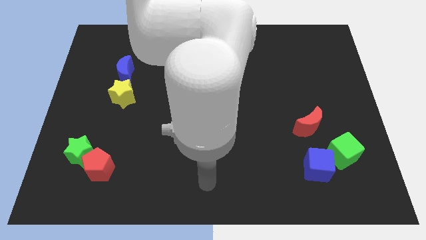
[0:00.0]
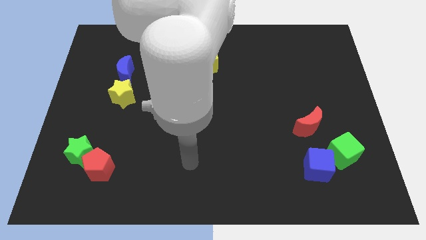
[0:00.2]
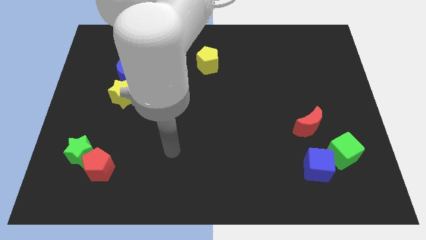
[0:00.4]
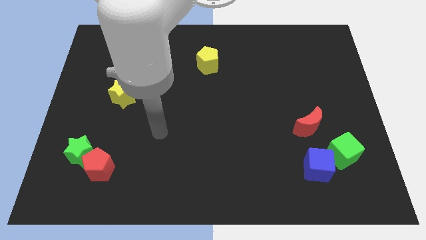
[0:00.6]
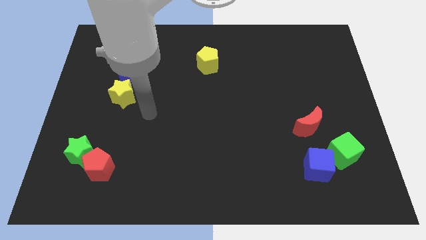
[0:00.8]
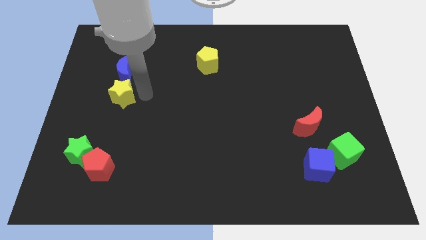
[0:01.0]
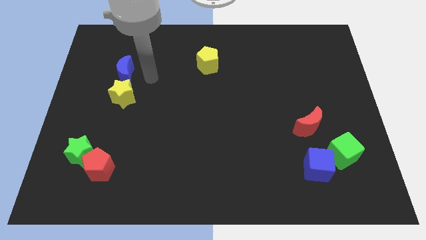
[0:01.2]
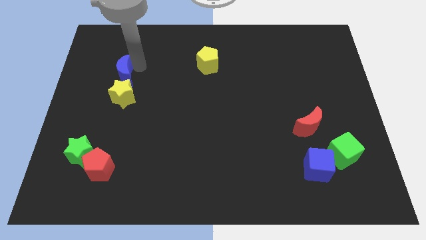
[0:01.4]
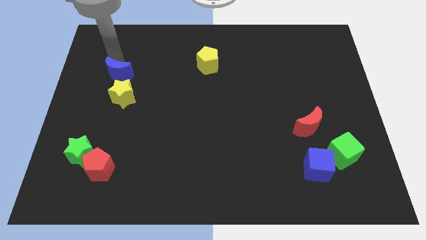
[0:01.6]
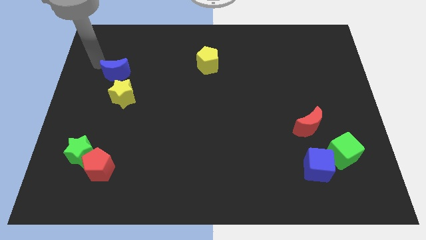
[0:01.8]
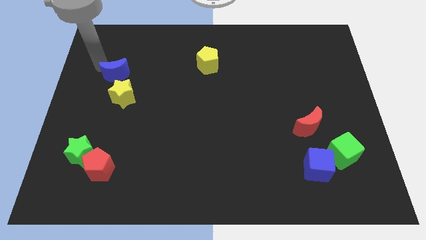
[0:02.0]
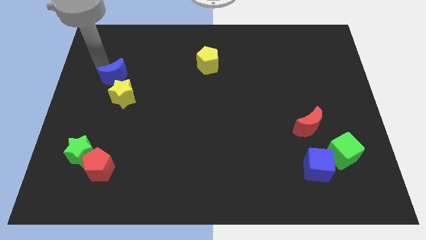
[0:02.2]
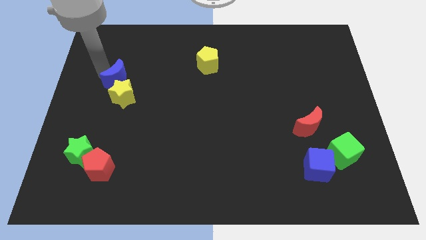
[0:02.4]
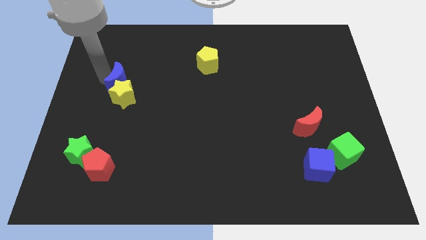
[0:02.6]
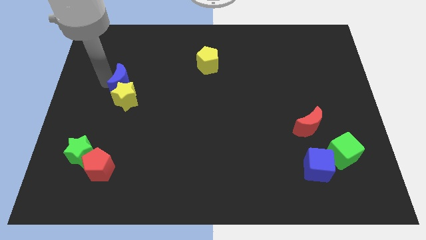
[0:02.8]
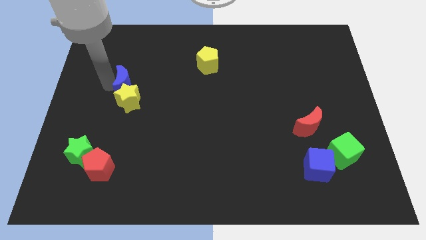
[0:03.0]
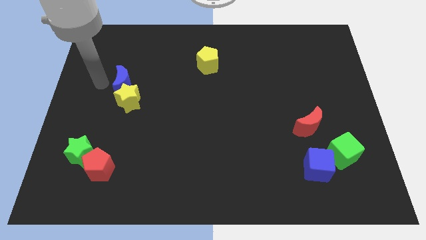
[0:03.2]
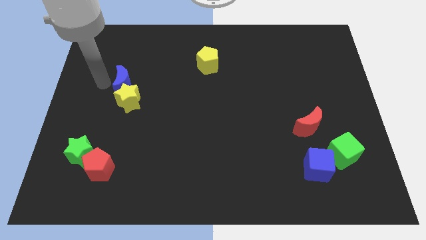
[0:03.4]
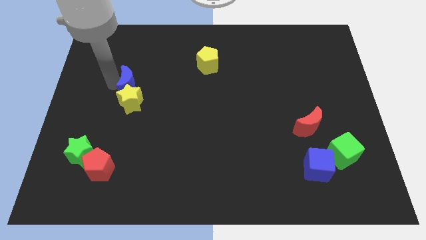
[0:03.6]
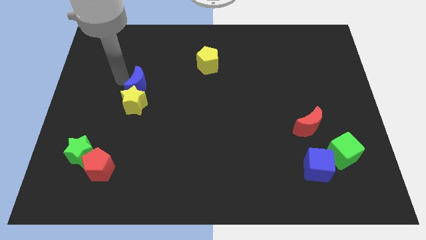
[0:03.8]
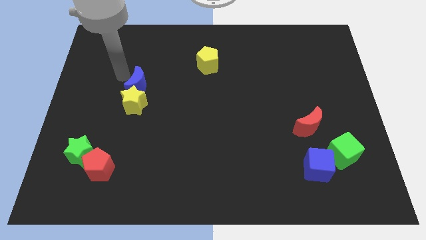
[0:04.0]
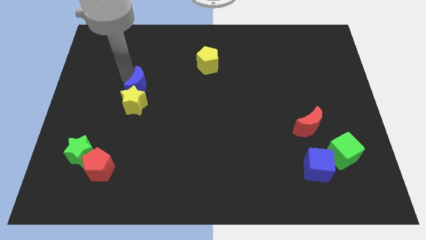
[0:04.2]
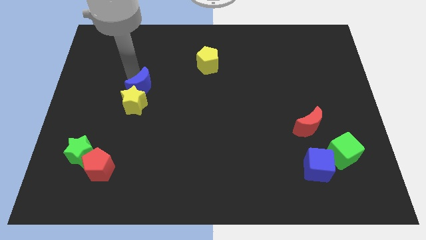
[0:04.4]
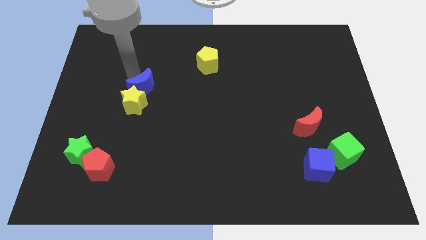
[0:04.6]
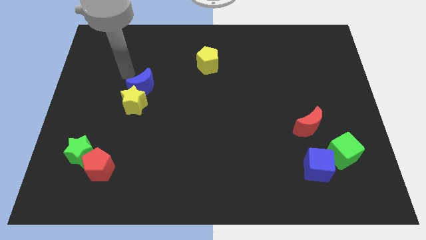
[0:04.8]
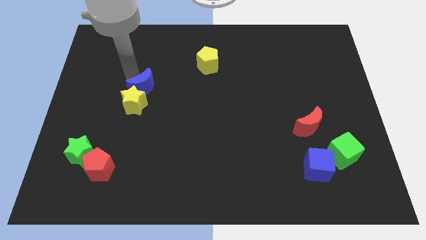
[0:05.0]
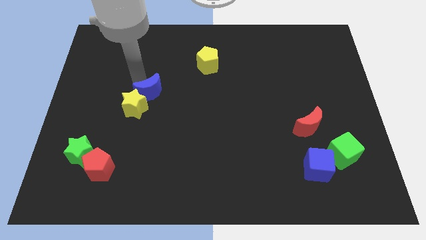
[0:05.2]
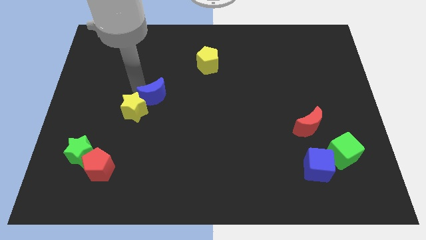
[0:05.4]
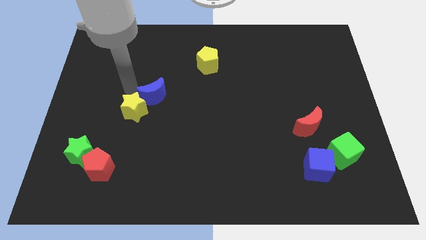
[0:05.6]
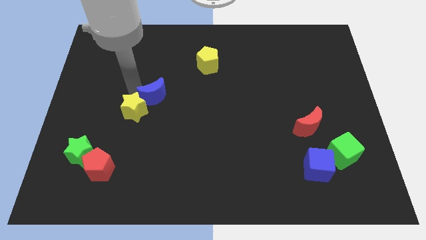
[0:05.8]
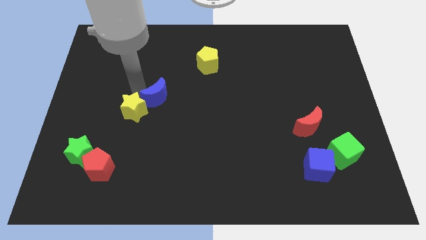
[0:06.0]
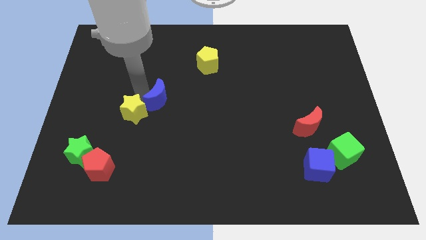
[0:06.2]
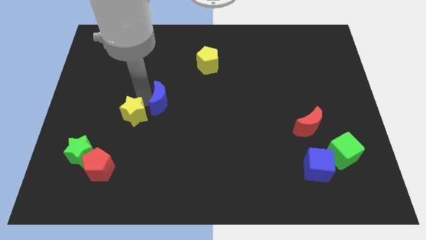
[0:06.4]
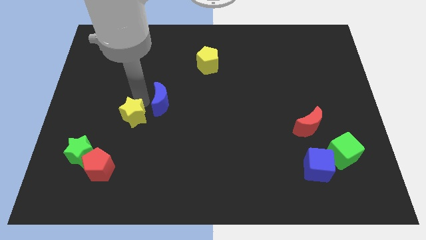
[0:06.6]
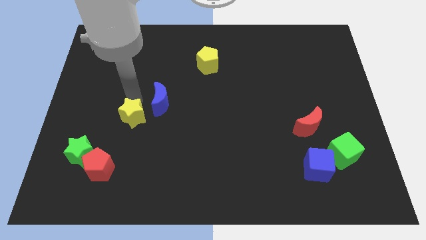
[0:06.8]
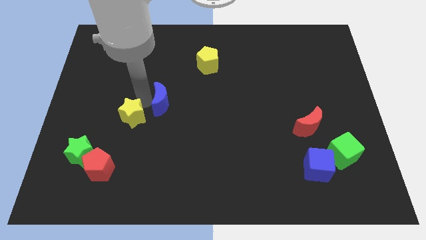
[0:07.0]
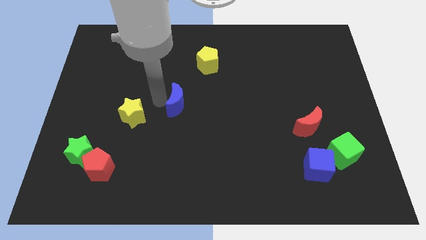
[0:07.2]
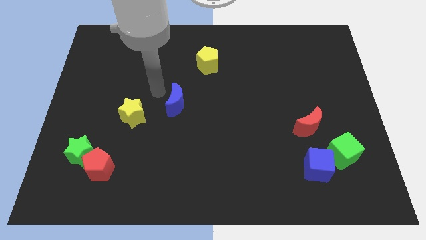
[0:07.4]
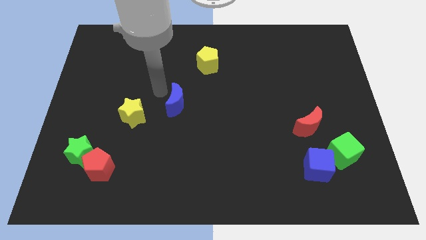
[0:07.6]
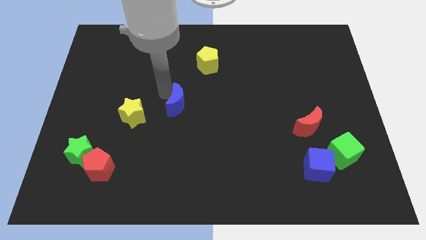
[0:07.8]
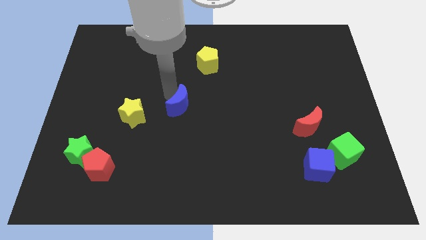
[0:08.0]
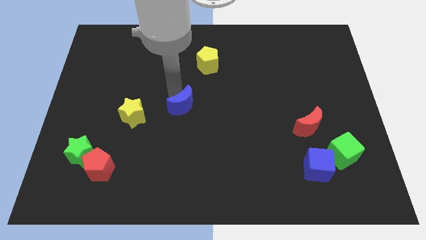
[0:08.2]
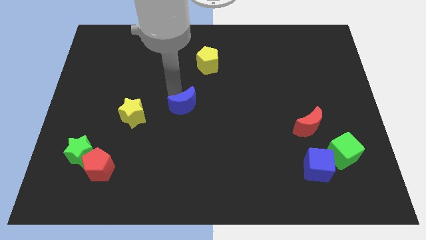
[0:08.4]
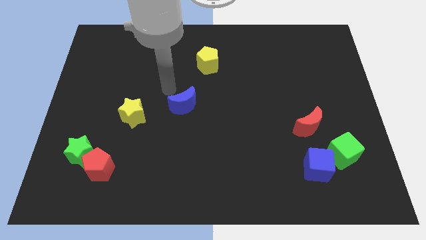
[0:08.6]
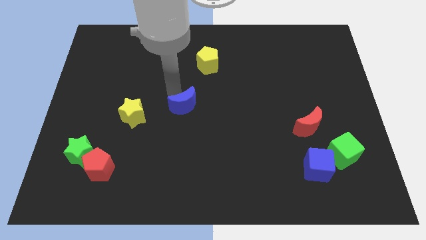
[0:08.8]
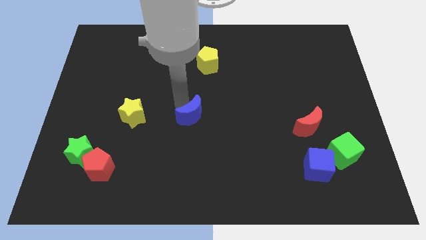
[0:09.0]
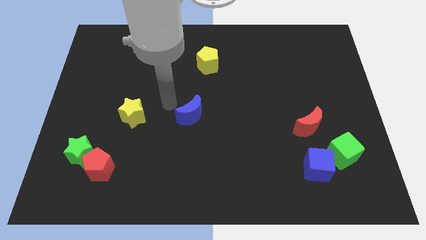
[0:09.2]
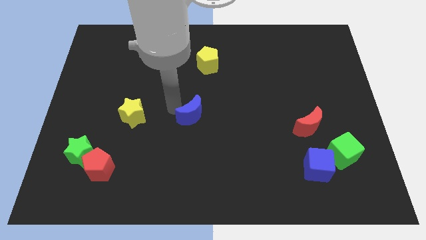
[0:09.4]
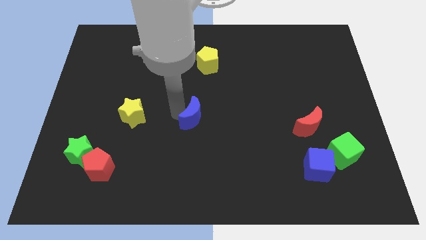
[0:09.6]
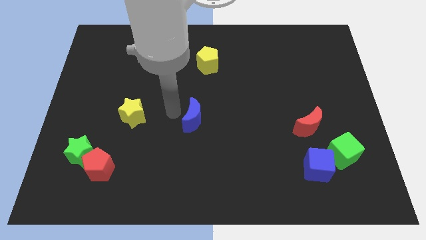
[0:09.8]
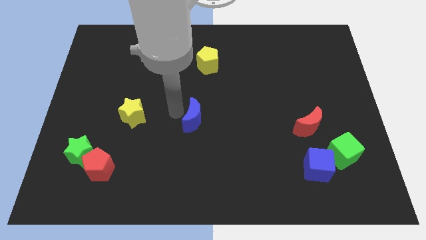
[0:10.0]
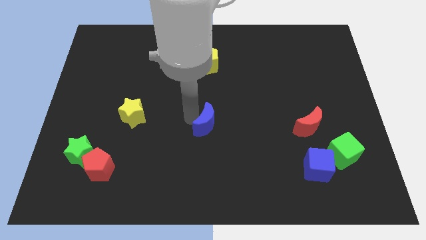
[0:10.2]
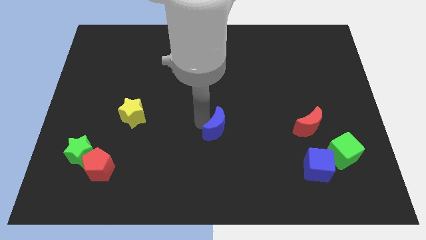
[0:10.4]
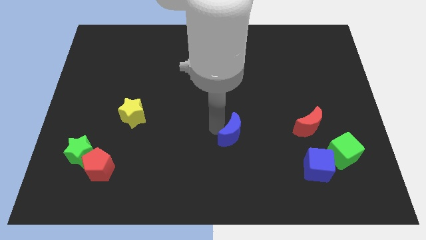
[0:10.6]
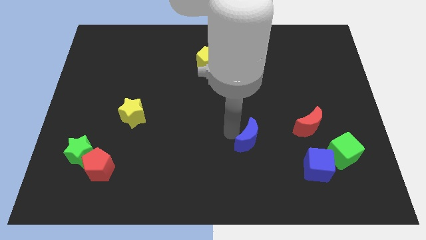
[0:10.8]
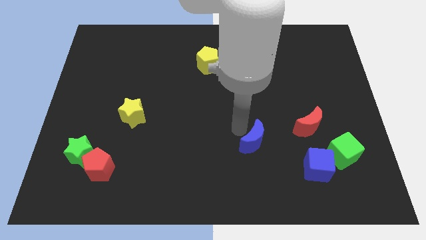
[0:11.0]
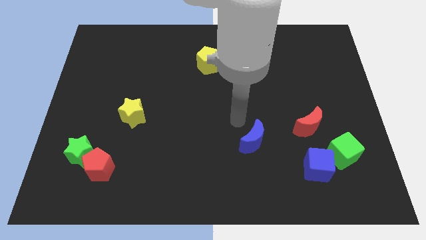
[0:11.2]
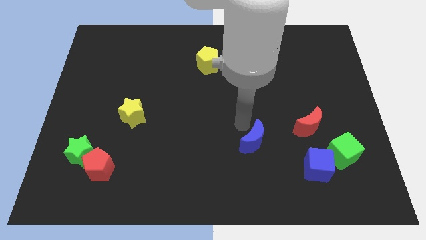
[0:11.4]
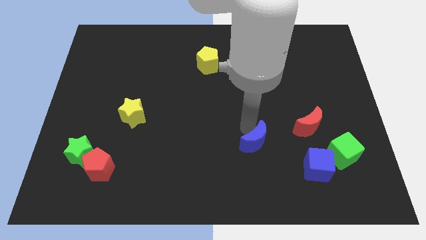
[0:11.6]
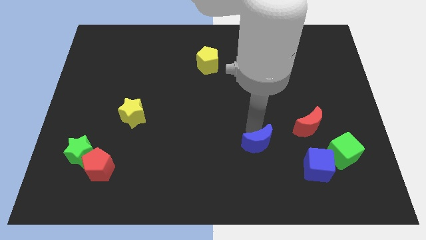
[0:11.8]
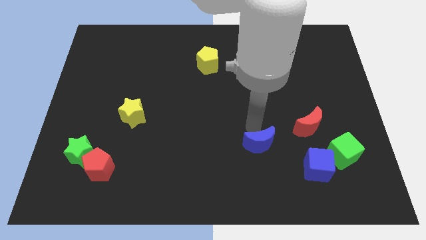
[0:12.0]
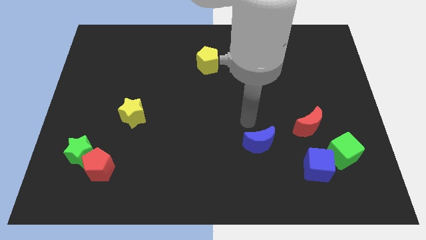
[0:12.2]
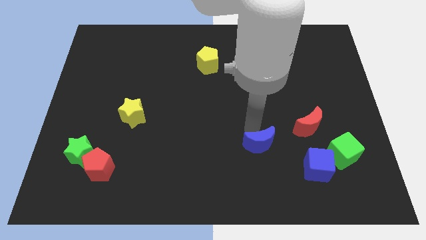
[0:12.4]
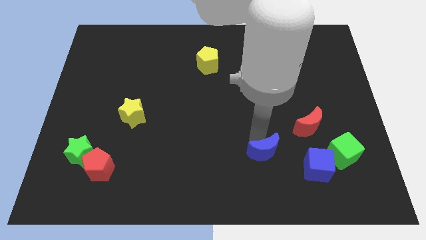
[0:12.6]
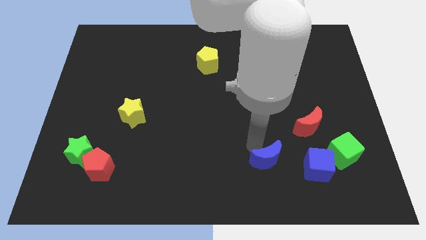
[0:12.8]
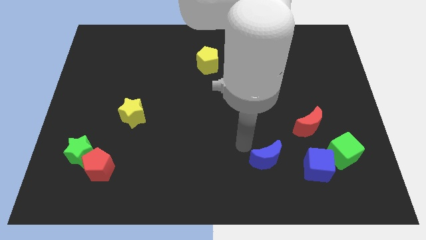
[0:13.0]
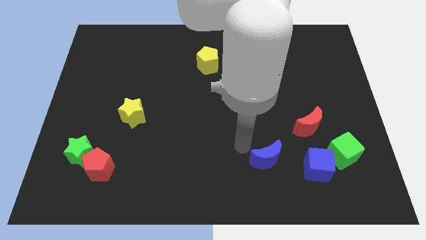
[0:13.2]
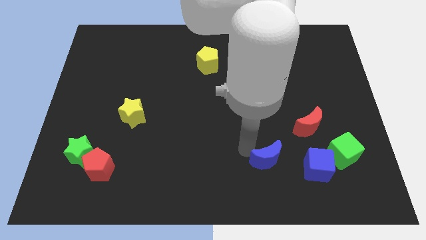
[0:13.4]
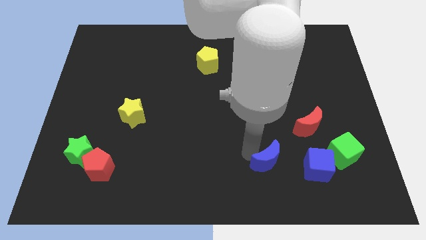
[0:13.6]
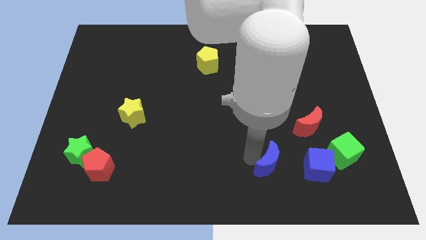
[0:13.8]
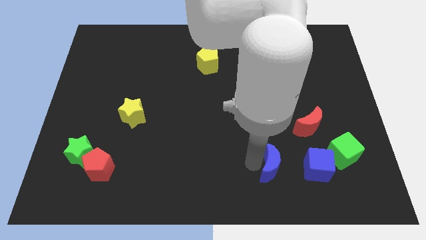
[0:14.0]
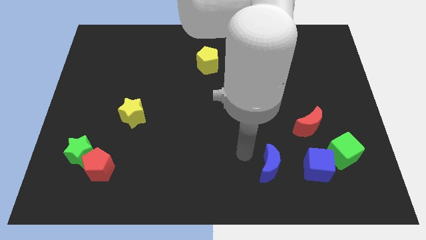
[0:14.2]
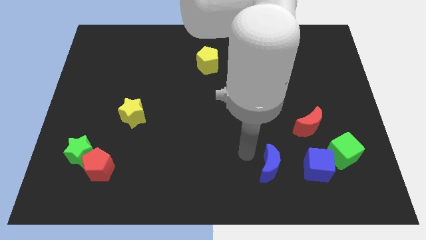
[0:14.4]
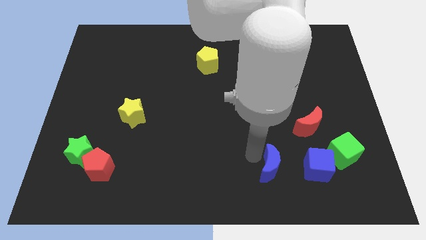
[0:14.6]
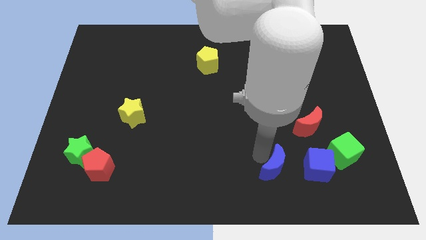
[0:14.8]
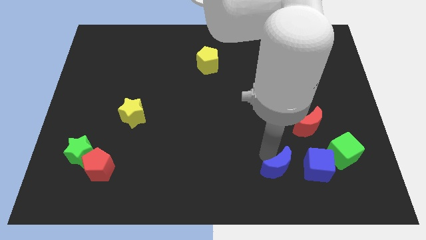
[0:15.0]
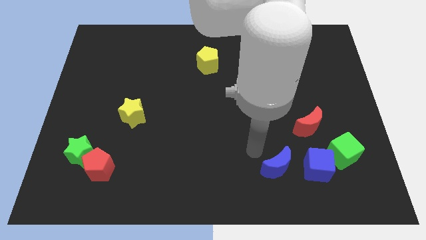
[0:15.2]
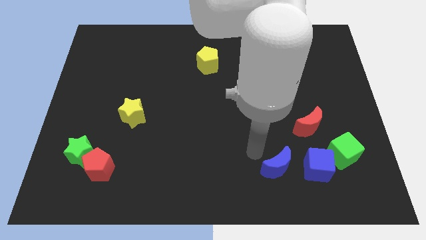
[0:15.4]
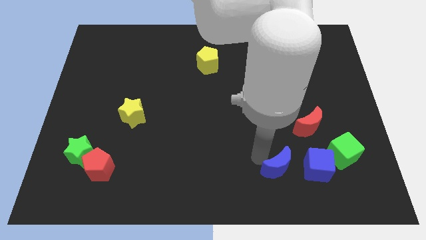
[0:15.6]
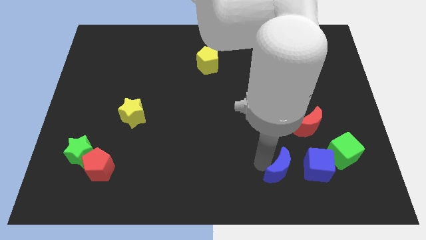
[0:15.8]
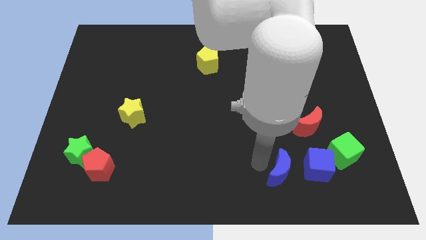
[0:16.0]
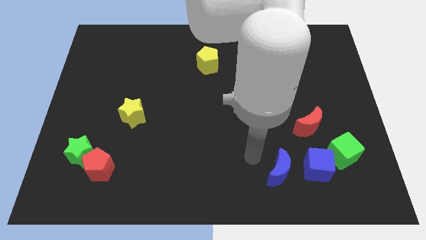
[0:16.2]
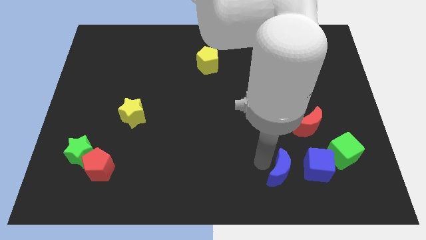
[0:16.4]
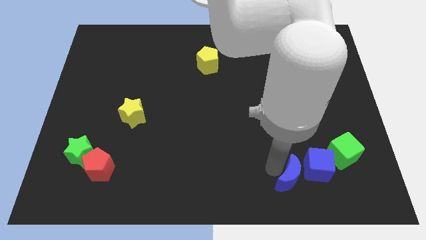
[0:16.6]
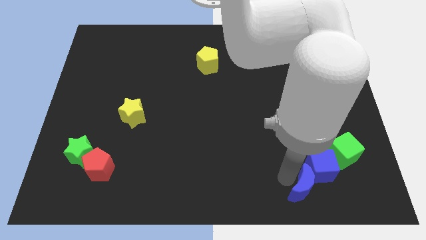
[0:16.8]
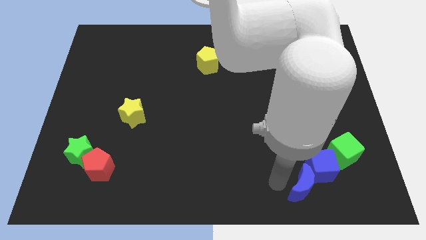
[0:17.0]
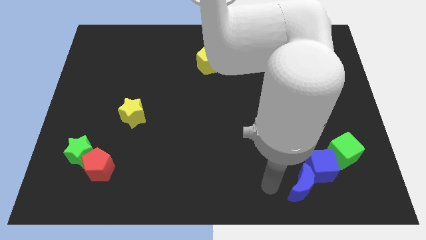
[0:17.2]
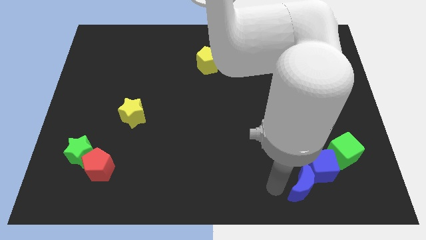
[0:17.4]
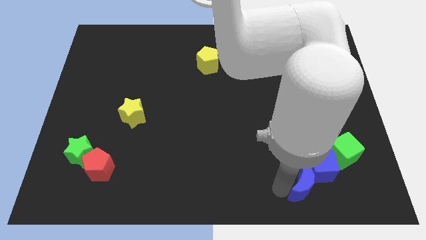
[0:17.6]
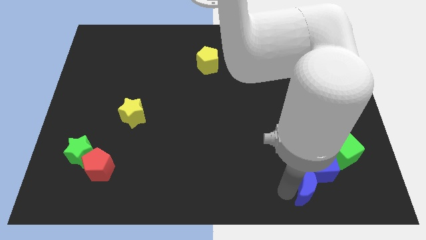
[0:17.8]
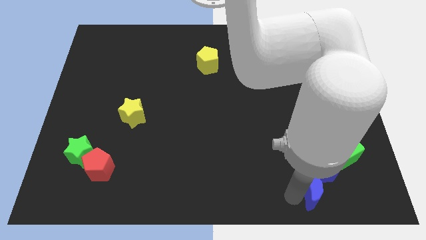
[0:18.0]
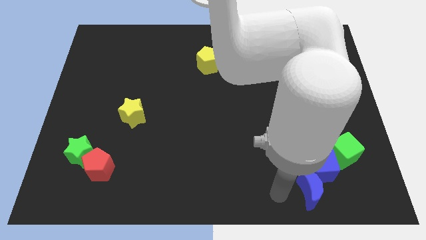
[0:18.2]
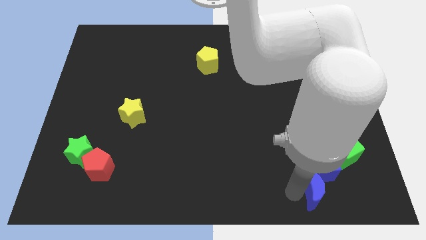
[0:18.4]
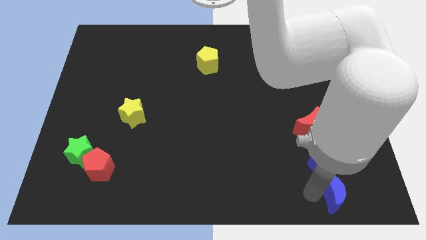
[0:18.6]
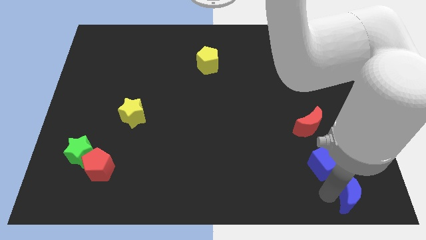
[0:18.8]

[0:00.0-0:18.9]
move the blue moon to the bottom right of the board
